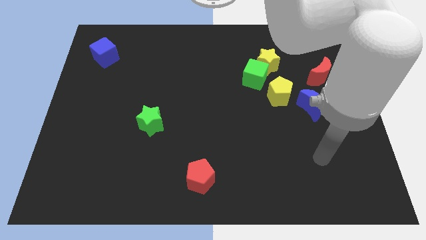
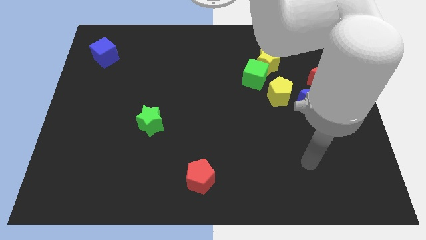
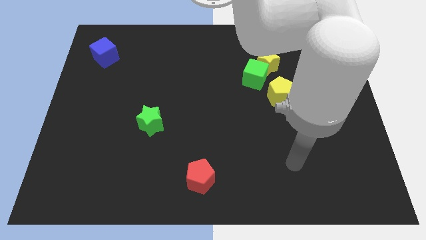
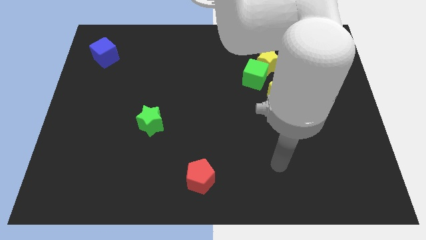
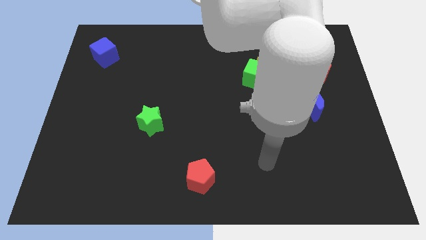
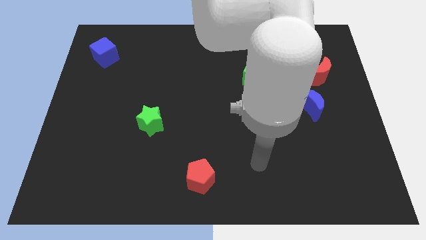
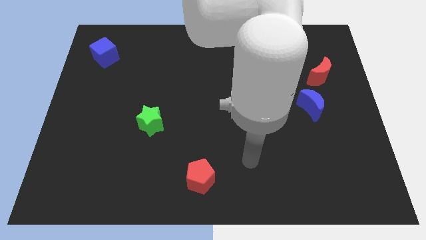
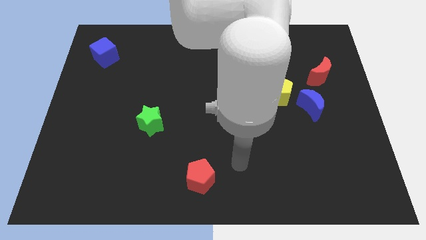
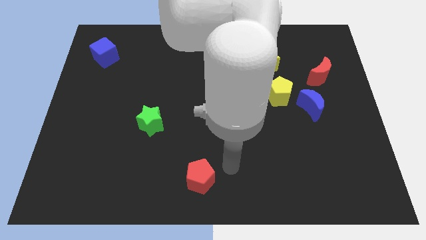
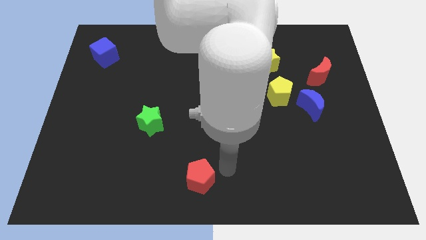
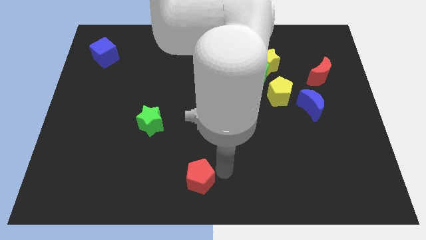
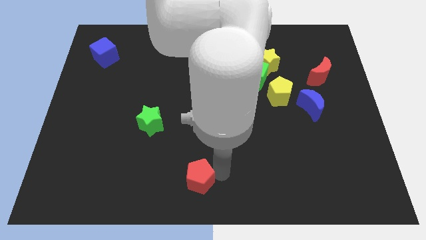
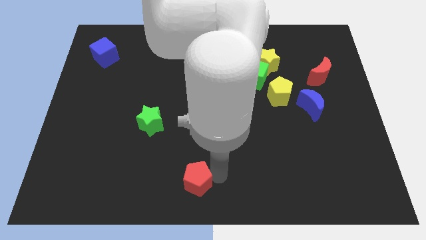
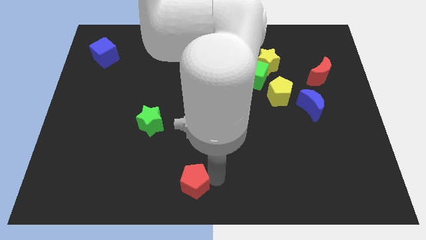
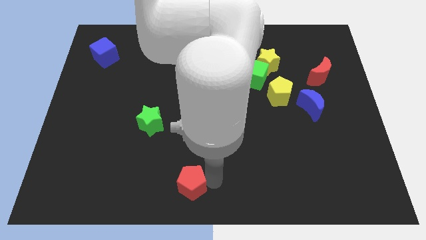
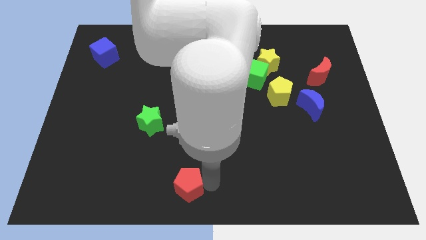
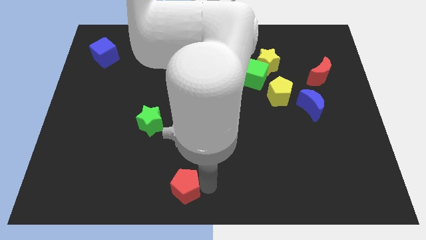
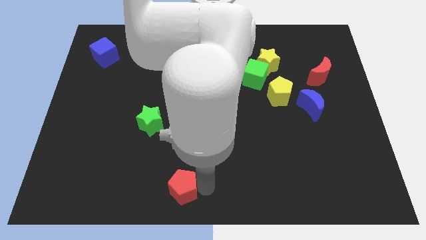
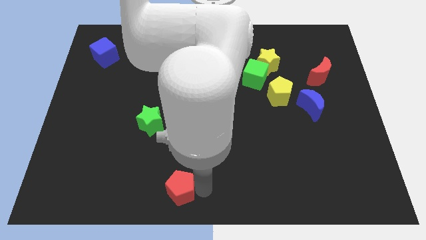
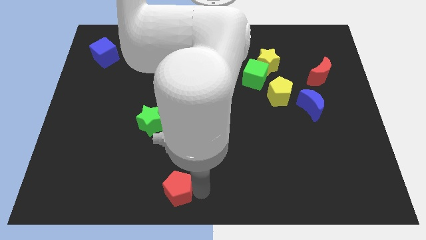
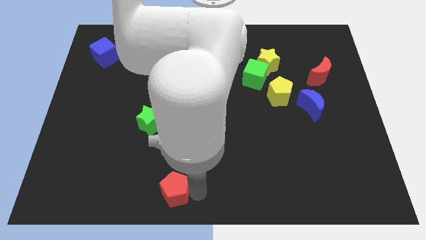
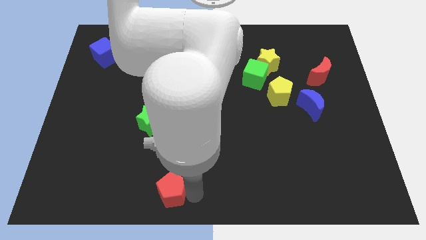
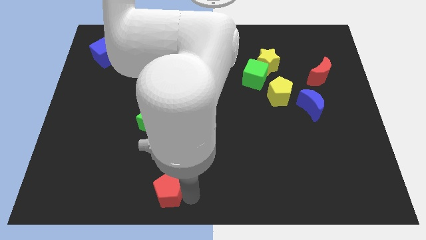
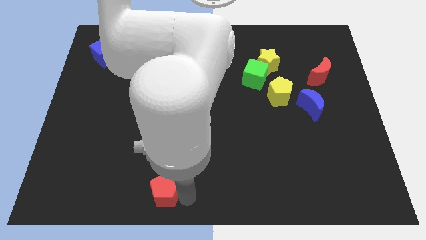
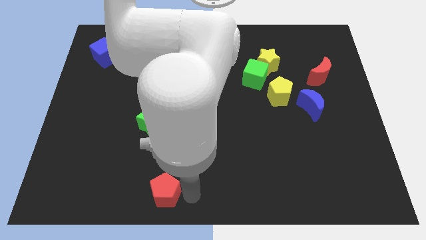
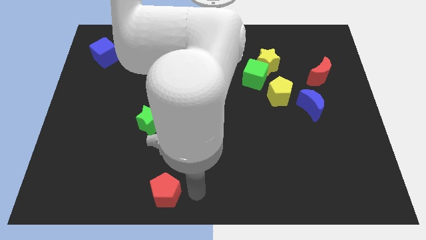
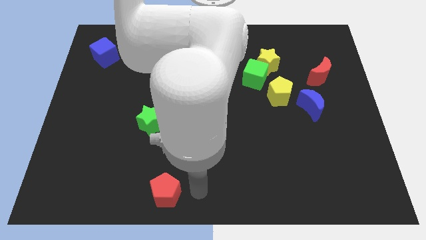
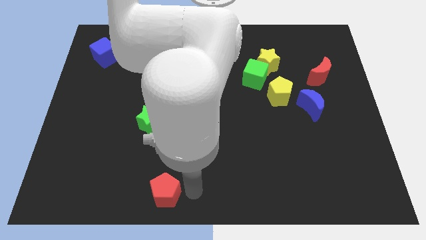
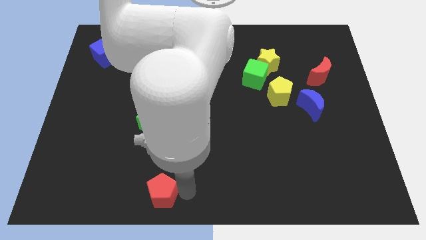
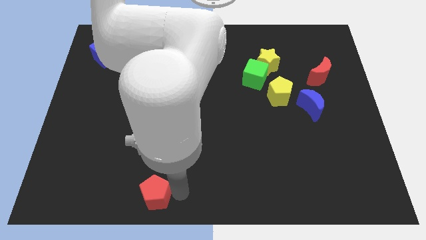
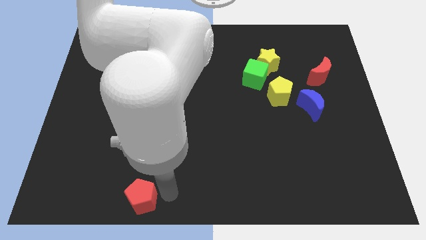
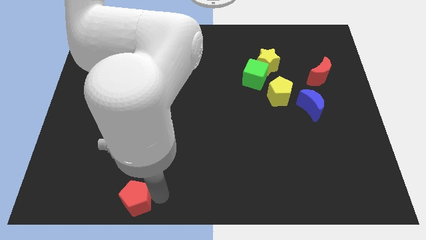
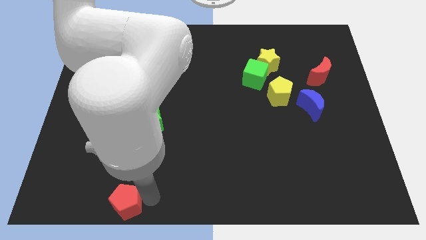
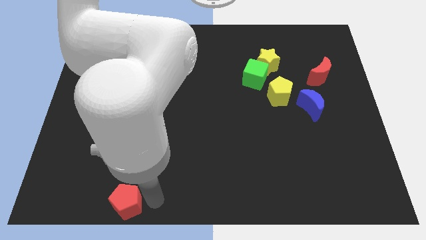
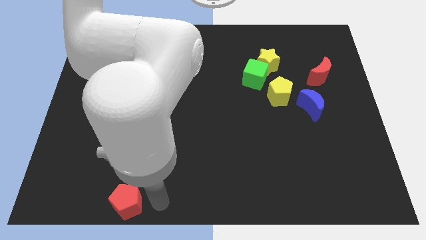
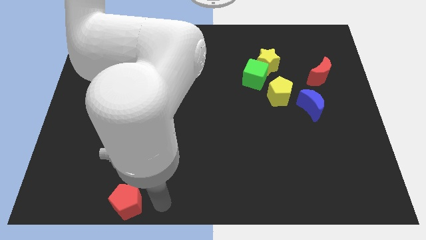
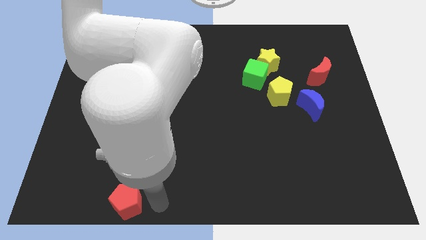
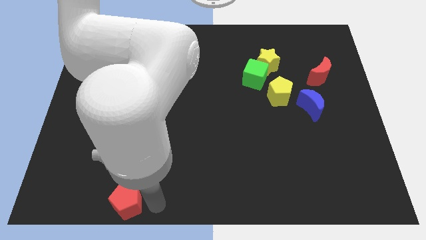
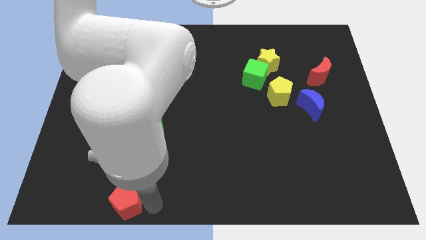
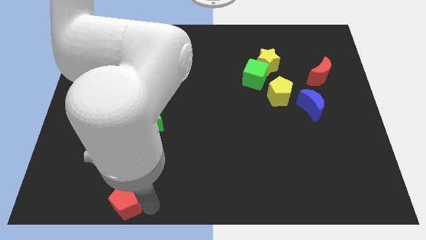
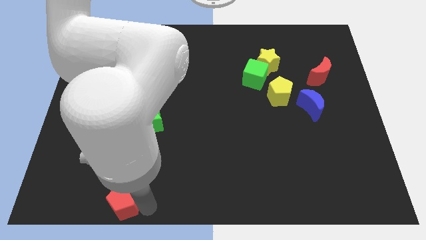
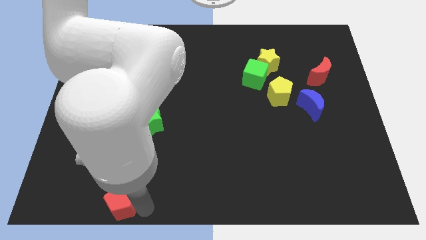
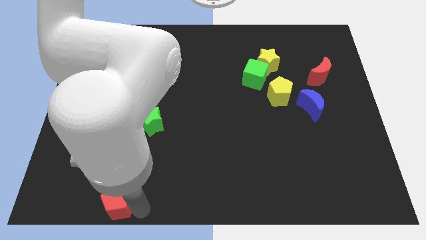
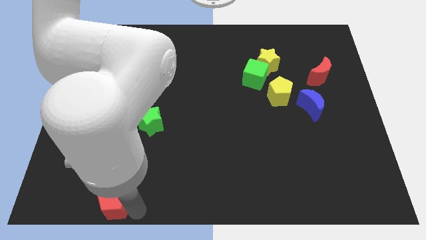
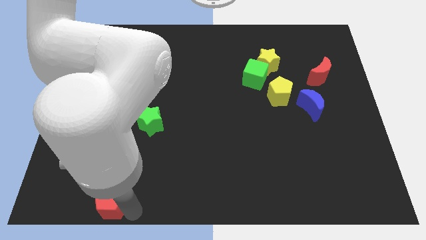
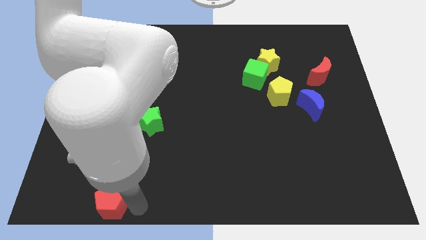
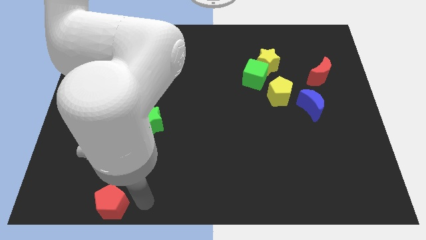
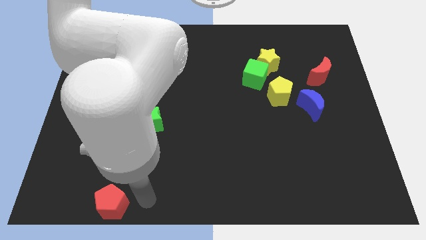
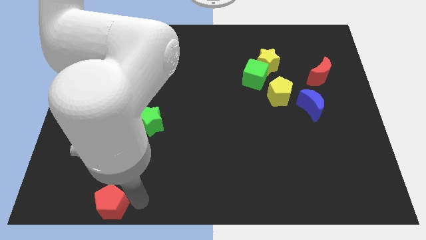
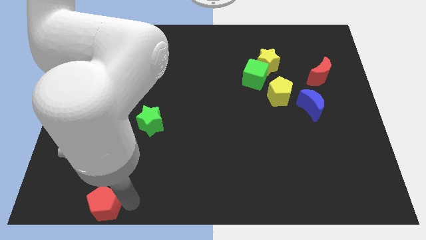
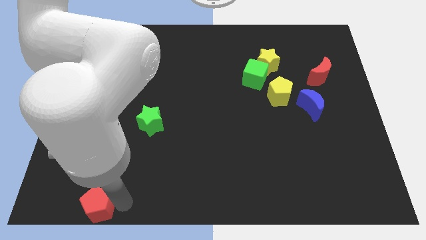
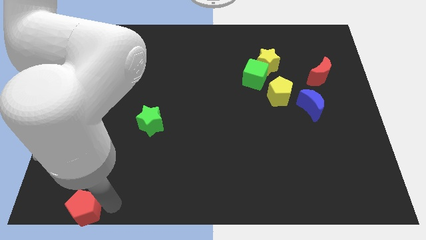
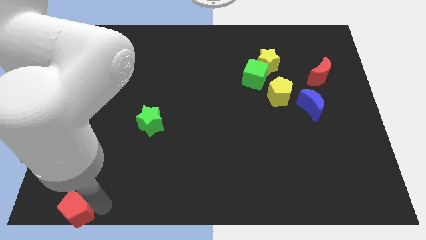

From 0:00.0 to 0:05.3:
slide the red pentagon to the lower left corner

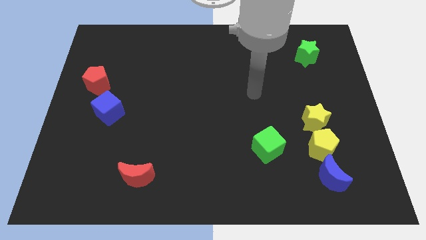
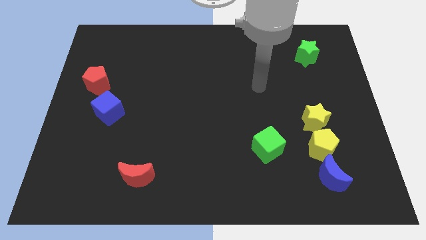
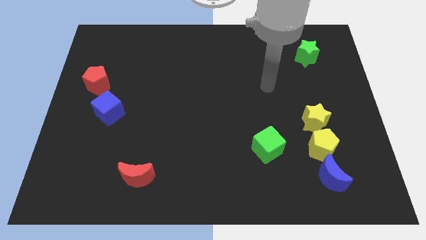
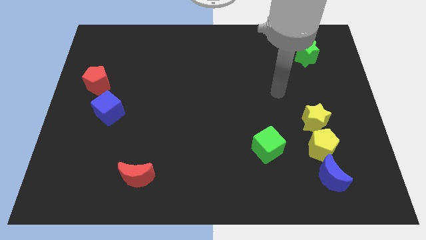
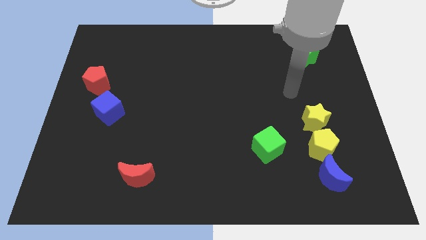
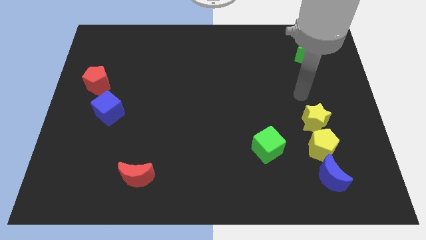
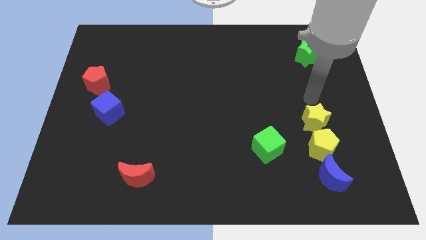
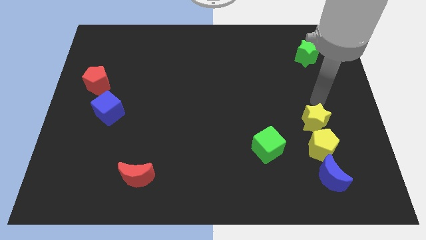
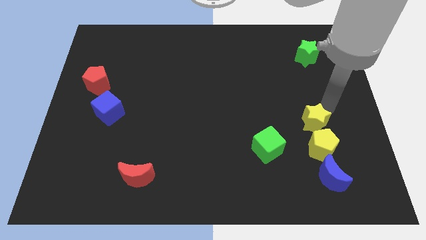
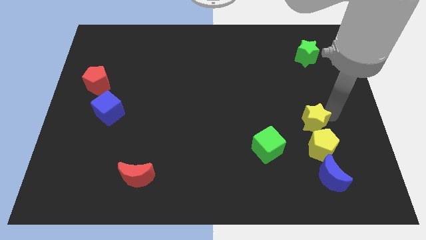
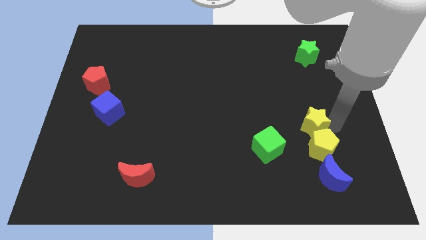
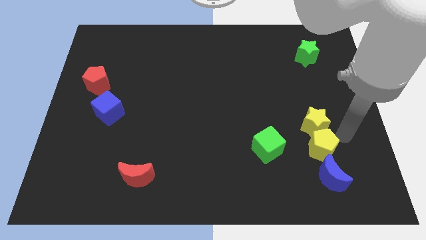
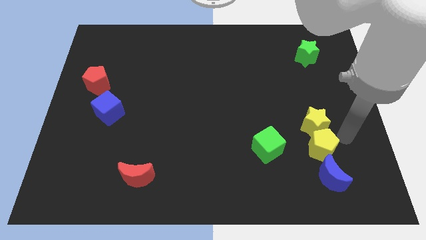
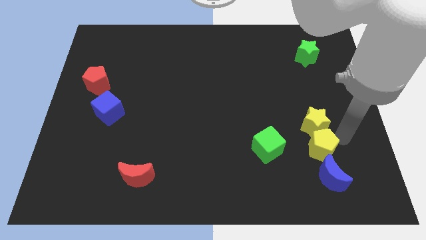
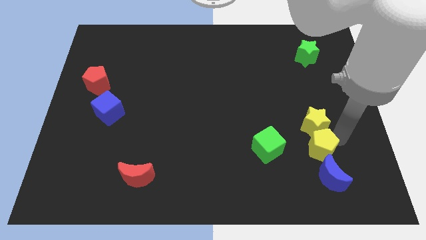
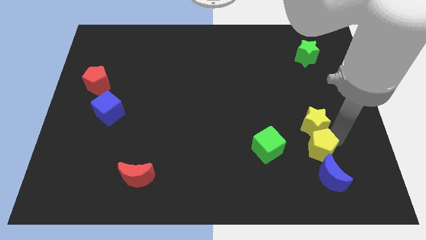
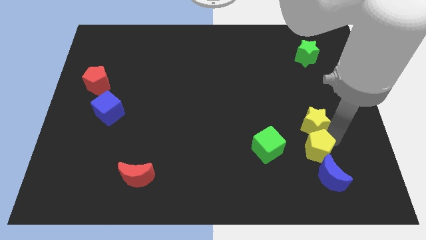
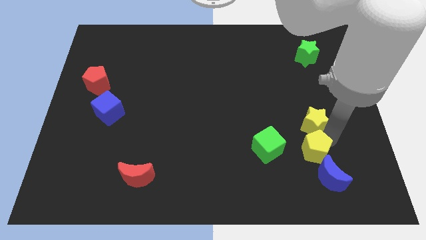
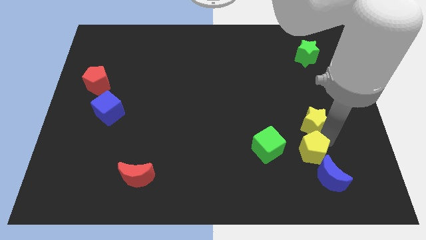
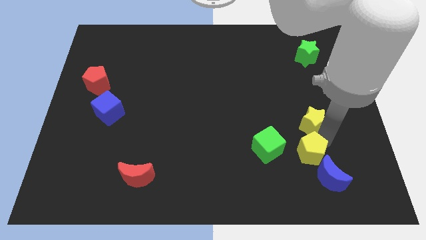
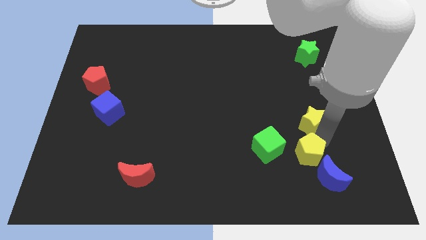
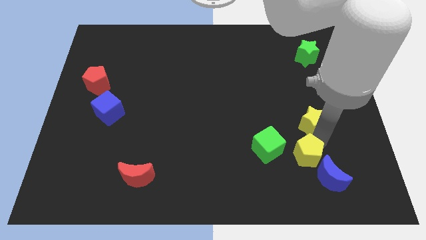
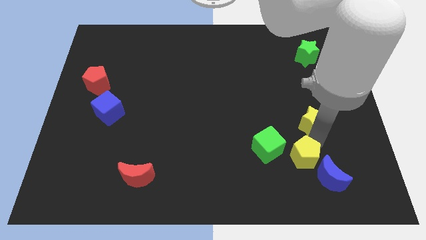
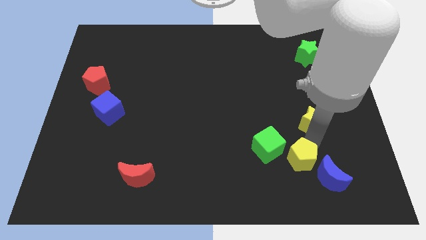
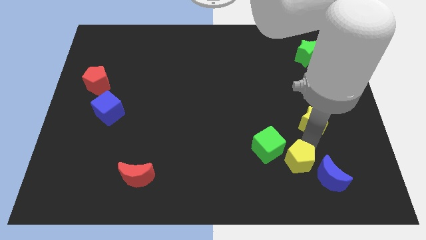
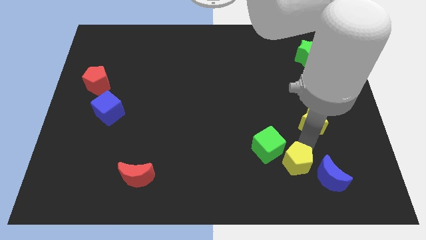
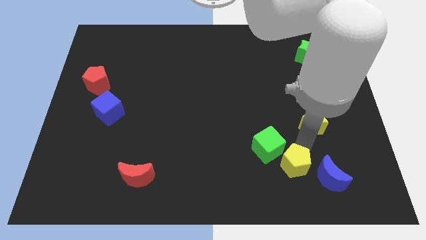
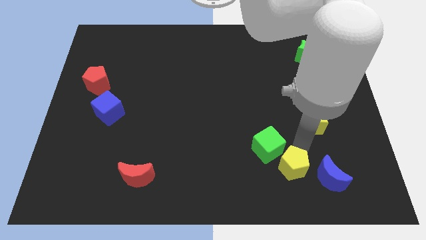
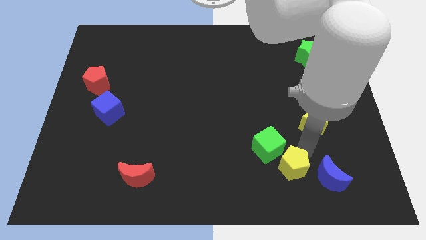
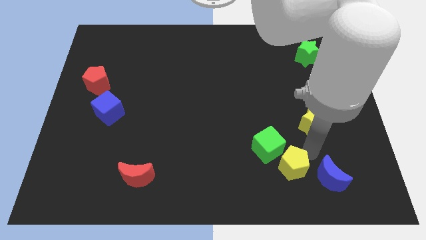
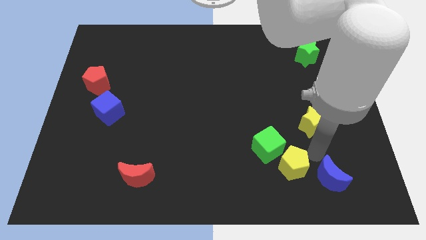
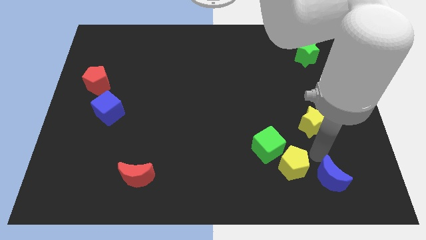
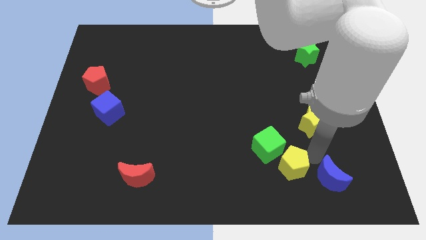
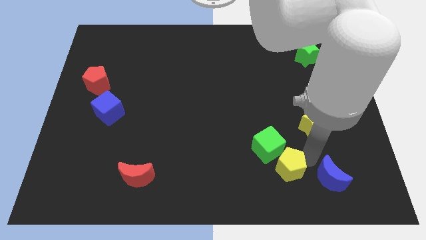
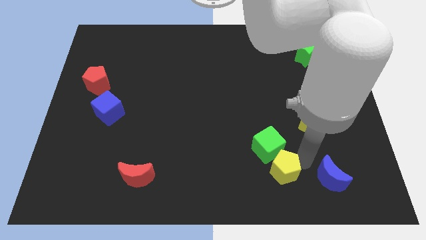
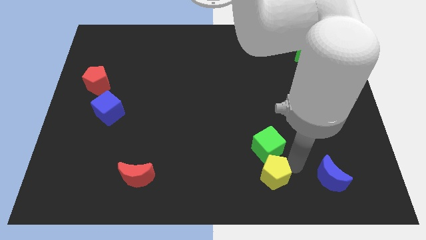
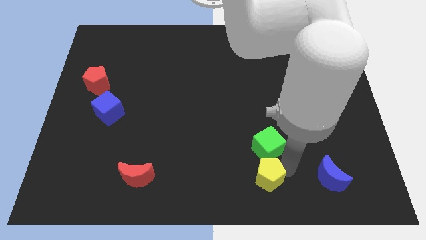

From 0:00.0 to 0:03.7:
slide the yellow pentagon to the bottom
